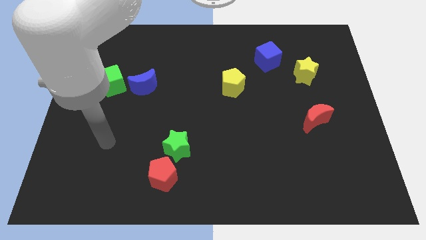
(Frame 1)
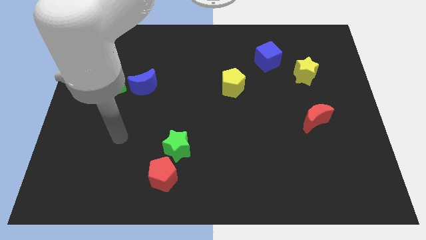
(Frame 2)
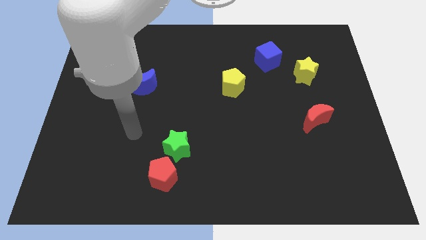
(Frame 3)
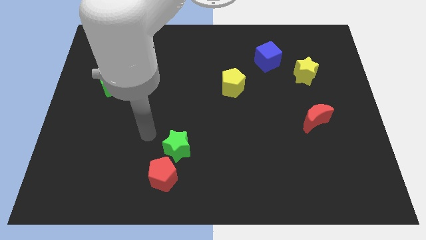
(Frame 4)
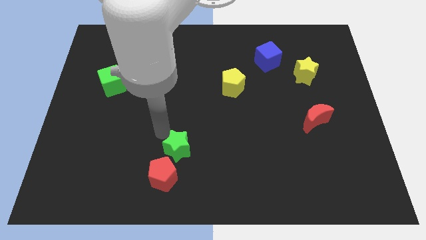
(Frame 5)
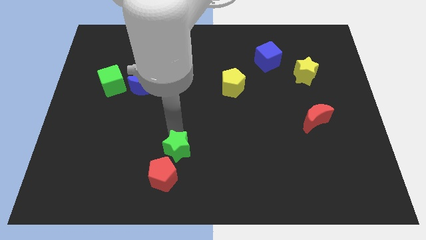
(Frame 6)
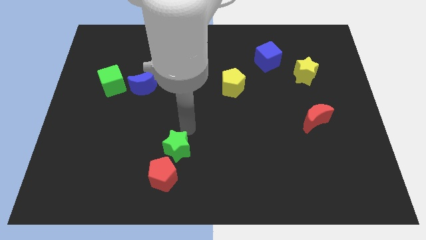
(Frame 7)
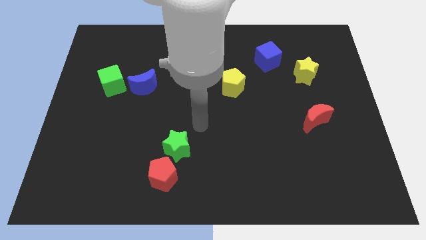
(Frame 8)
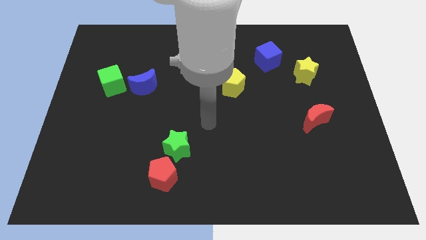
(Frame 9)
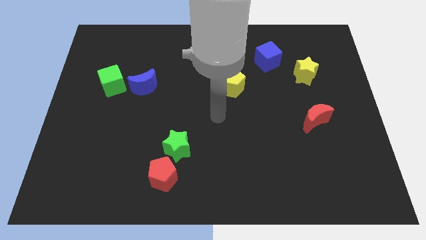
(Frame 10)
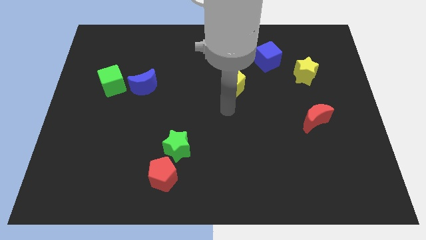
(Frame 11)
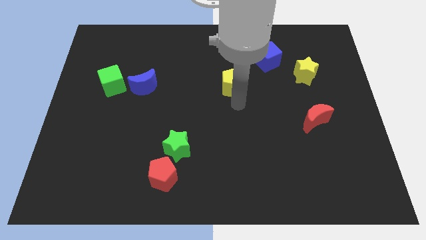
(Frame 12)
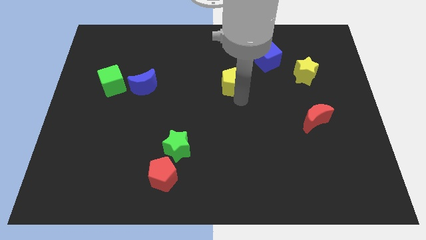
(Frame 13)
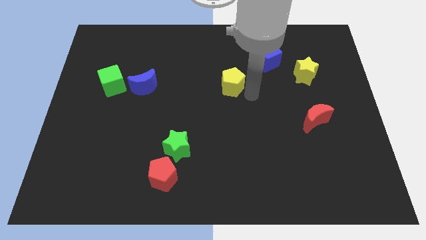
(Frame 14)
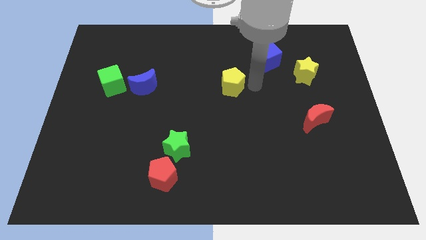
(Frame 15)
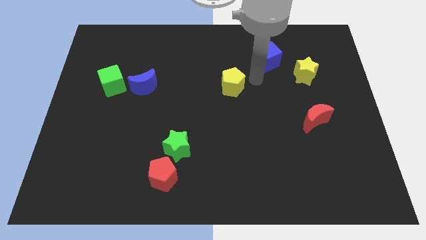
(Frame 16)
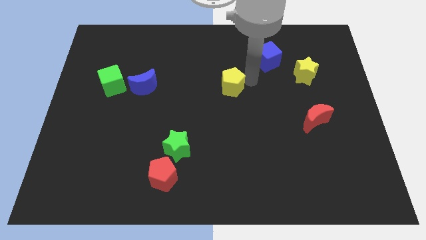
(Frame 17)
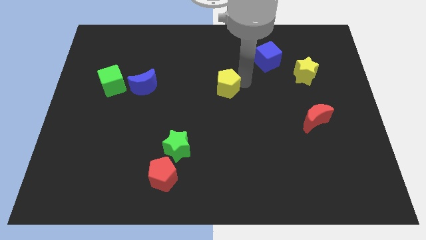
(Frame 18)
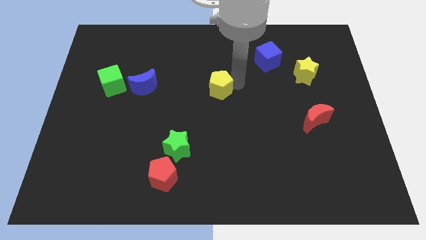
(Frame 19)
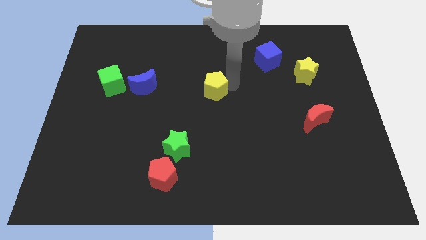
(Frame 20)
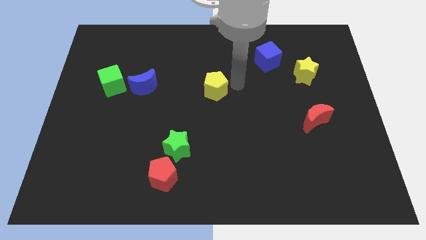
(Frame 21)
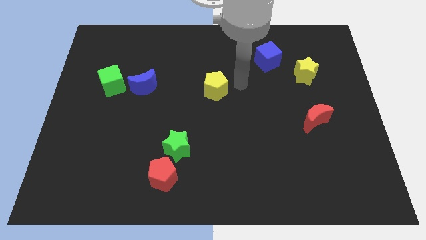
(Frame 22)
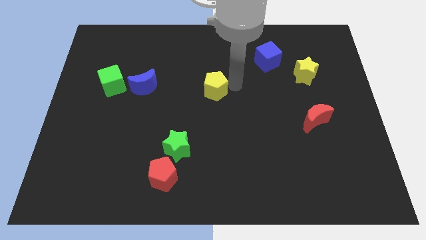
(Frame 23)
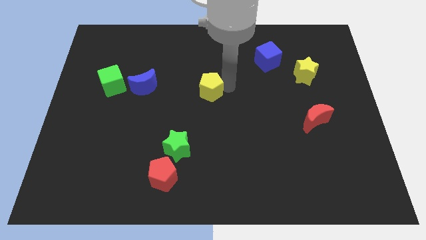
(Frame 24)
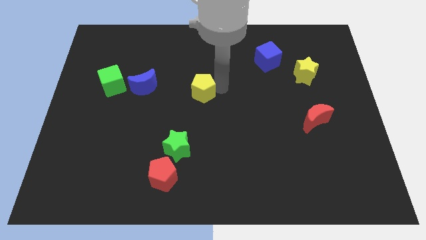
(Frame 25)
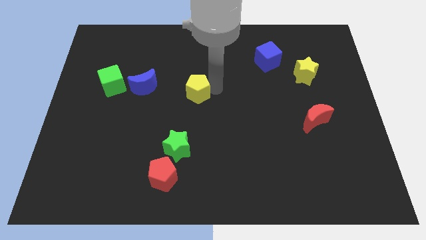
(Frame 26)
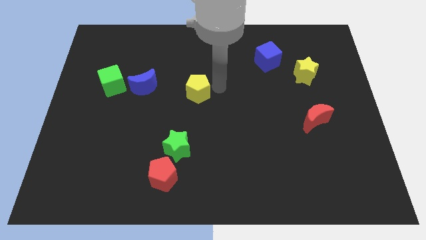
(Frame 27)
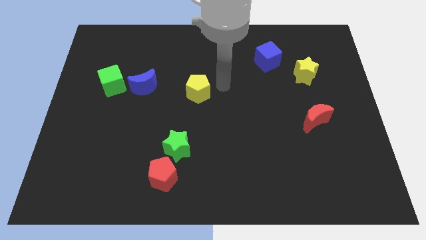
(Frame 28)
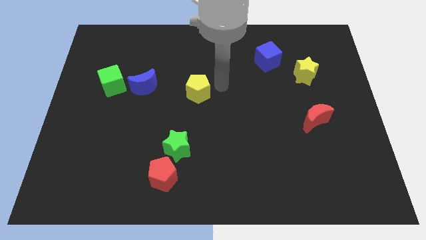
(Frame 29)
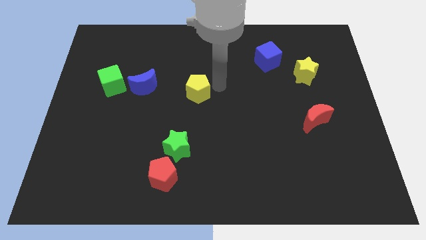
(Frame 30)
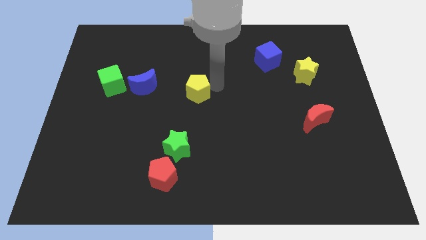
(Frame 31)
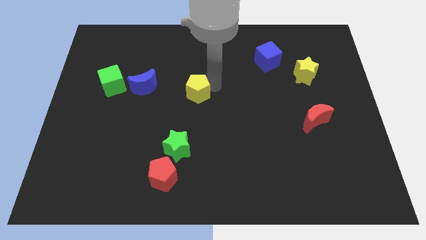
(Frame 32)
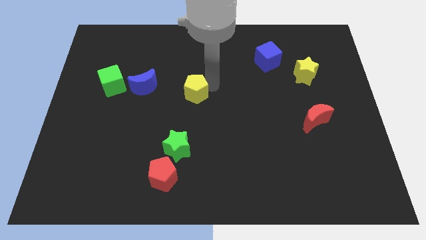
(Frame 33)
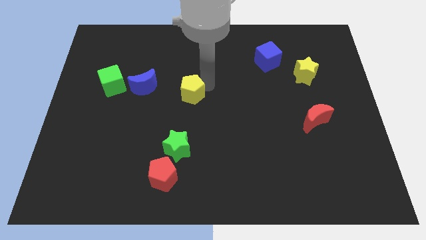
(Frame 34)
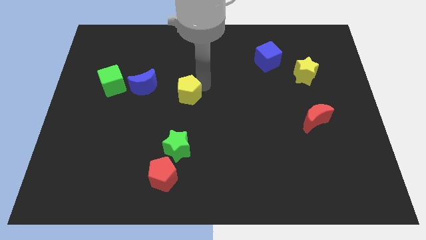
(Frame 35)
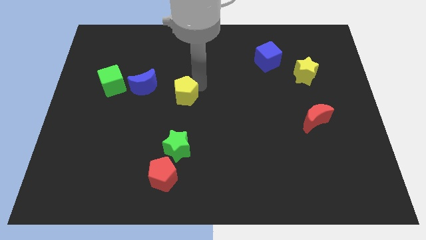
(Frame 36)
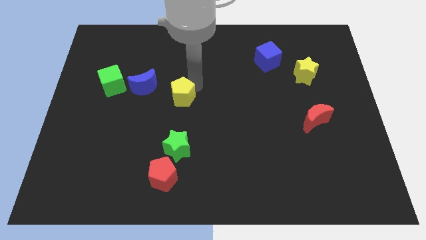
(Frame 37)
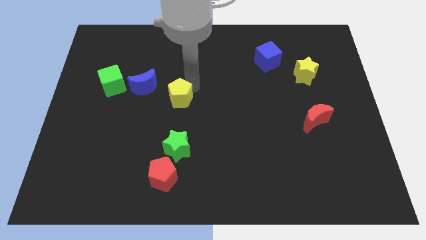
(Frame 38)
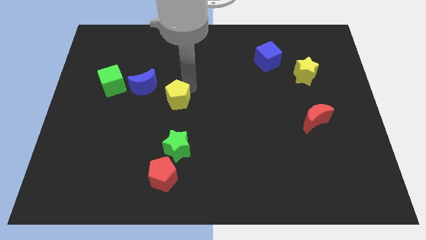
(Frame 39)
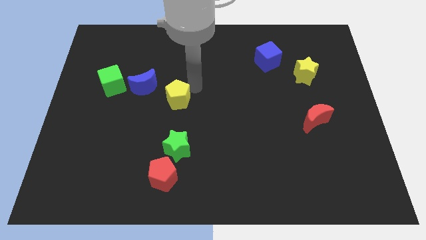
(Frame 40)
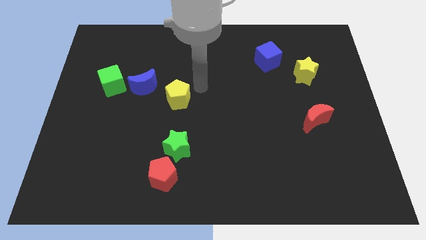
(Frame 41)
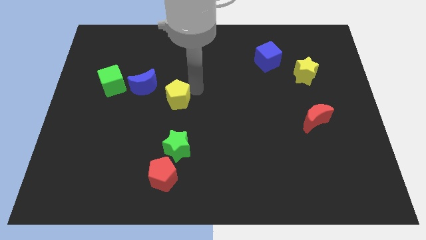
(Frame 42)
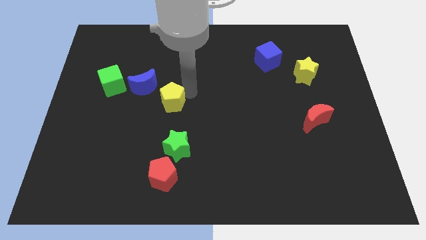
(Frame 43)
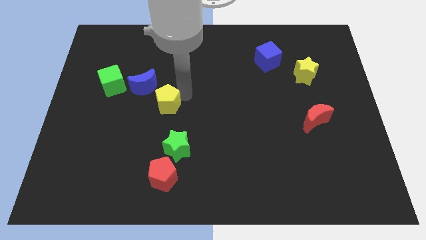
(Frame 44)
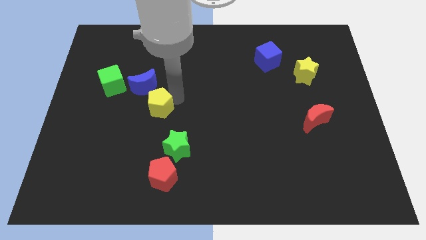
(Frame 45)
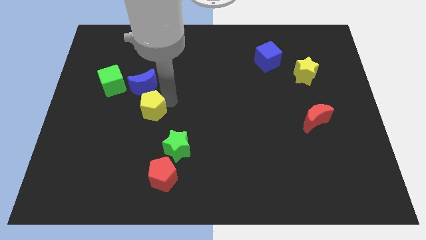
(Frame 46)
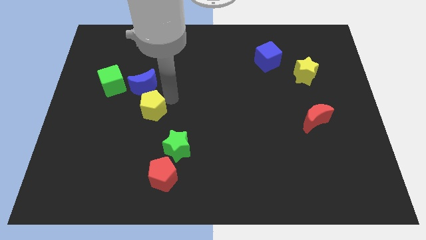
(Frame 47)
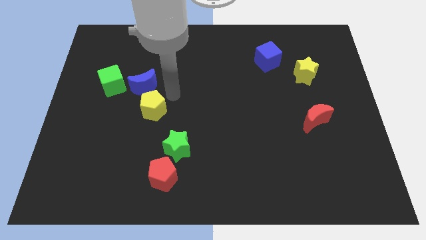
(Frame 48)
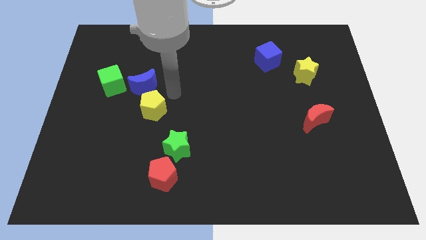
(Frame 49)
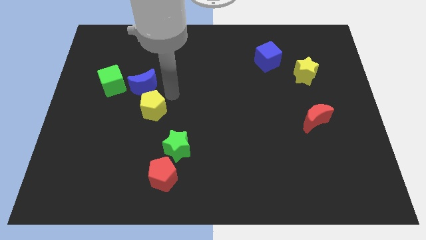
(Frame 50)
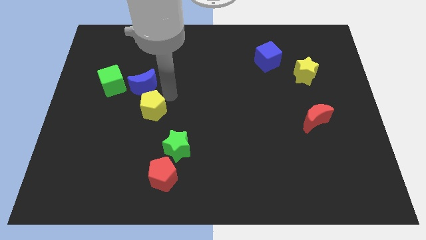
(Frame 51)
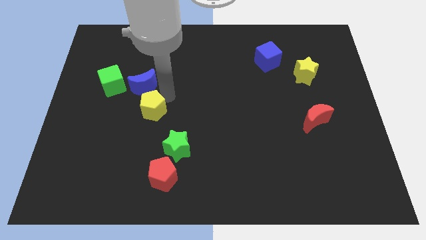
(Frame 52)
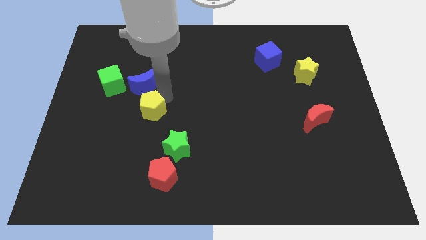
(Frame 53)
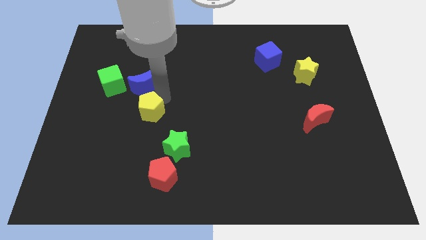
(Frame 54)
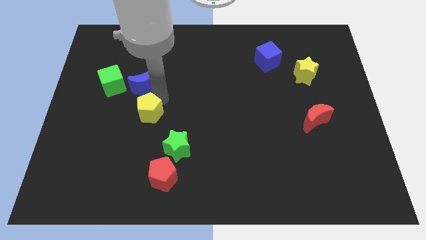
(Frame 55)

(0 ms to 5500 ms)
put the yellow pentagon diagonally down and to the right of the green cube
